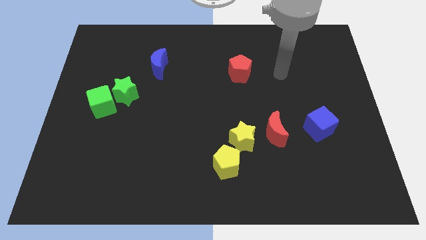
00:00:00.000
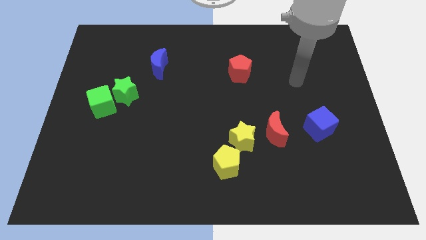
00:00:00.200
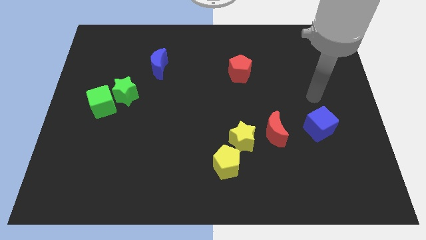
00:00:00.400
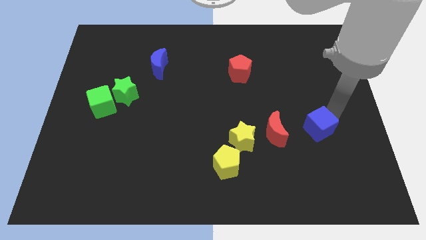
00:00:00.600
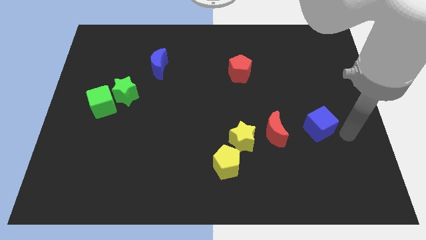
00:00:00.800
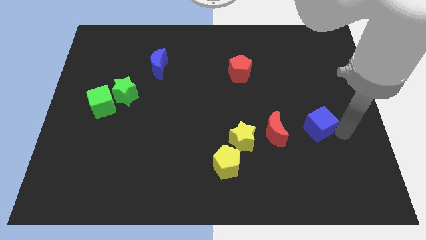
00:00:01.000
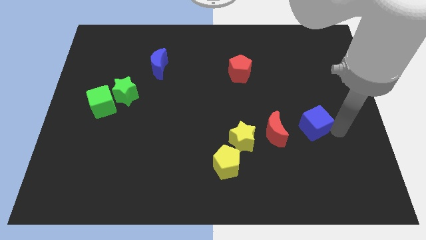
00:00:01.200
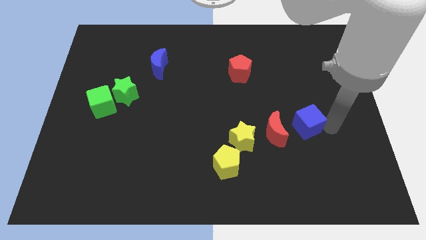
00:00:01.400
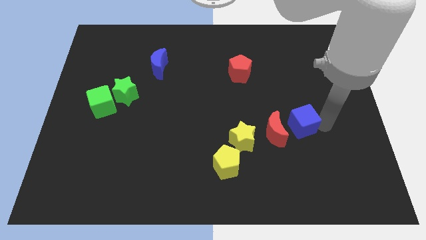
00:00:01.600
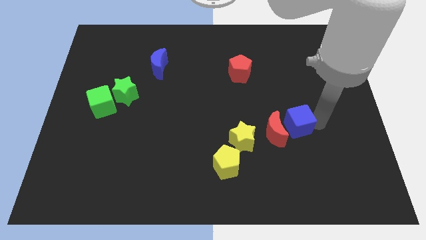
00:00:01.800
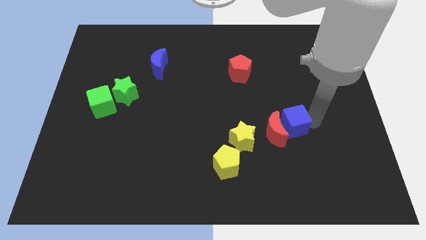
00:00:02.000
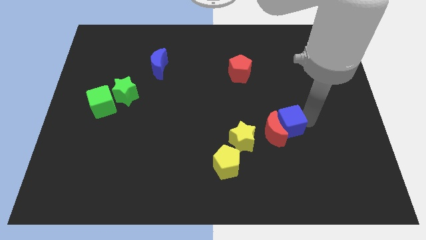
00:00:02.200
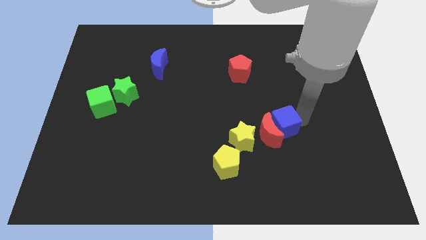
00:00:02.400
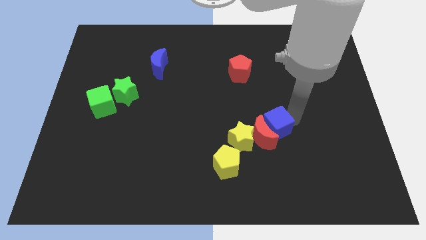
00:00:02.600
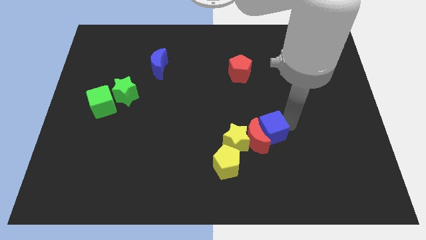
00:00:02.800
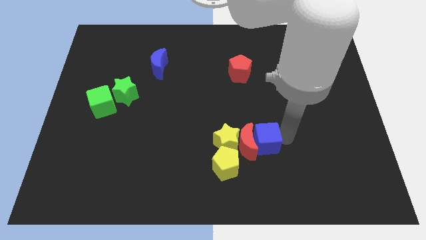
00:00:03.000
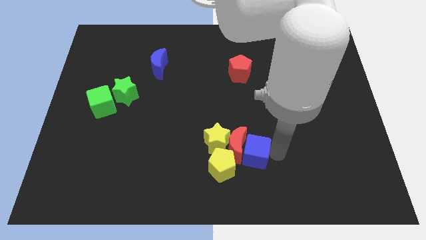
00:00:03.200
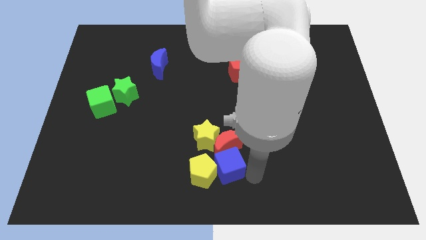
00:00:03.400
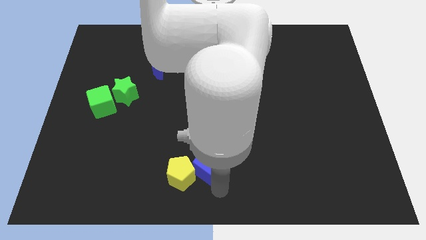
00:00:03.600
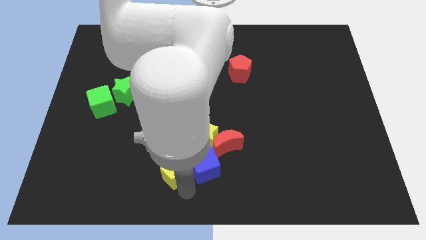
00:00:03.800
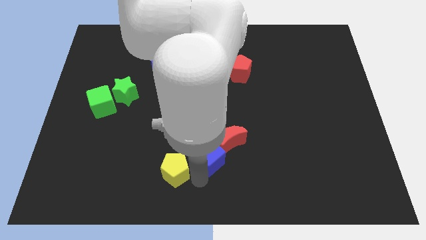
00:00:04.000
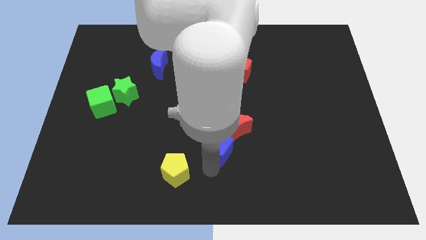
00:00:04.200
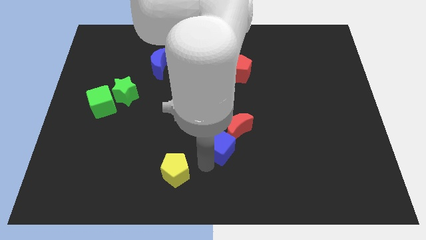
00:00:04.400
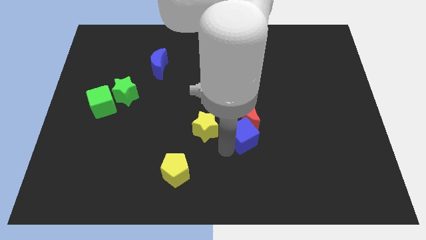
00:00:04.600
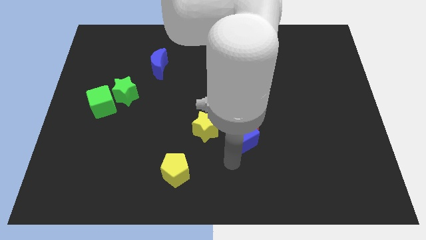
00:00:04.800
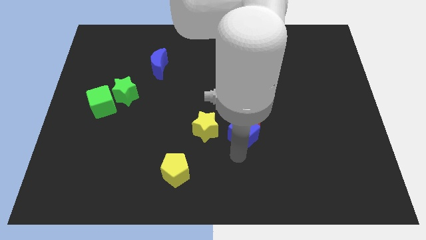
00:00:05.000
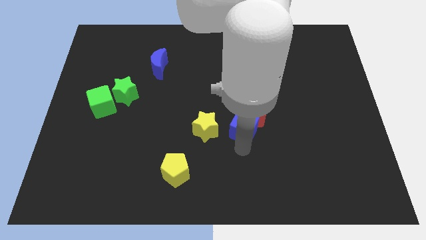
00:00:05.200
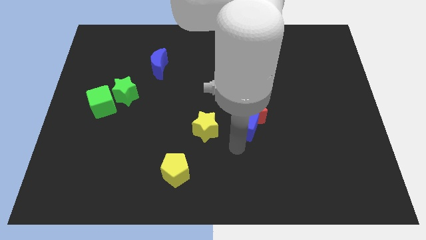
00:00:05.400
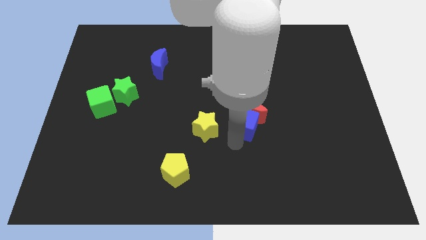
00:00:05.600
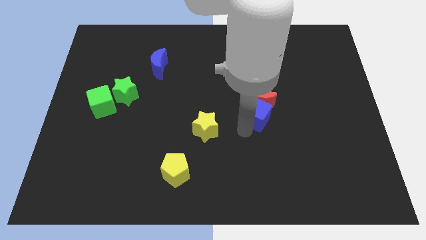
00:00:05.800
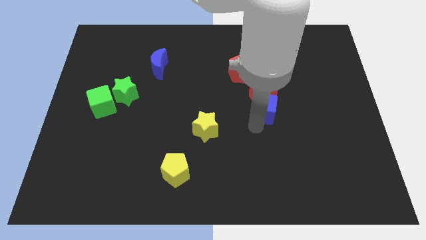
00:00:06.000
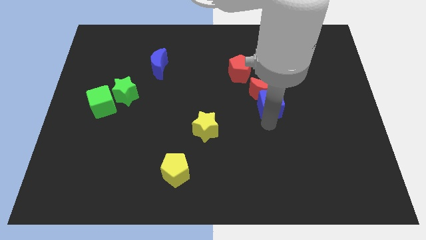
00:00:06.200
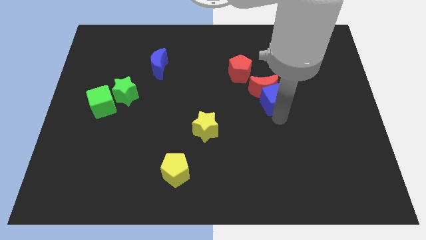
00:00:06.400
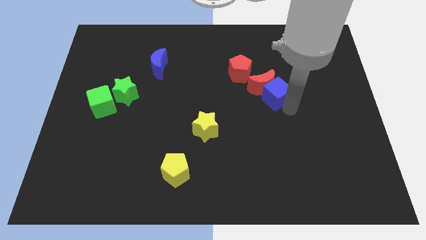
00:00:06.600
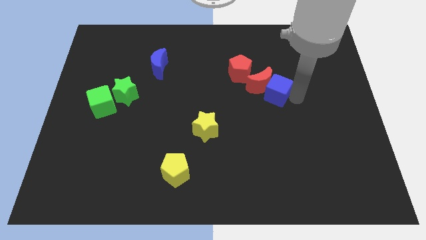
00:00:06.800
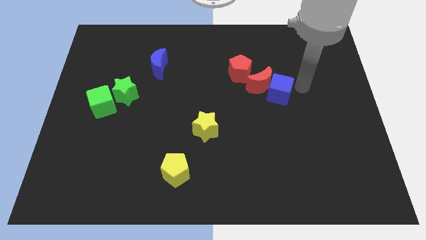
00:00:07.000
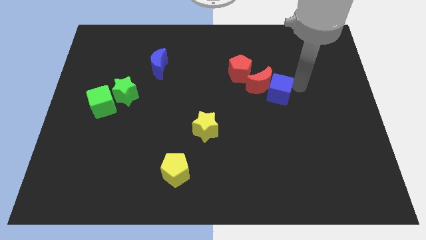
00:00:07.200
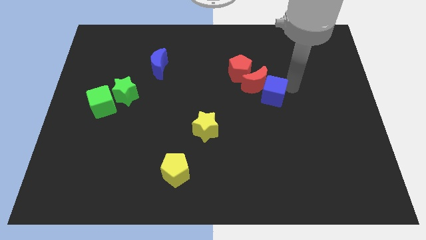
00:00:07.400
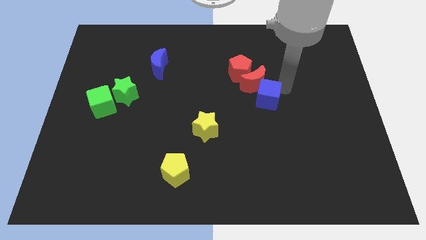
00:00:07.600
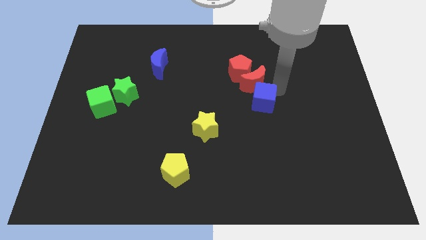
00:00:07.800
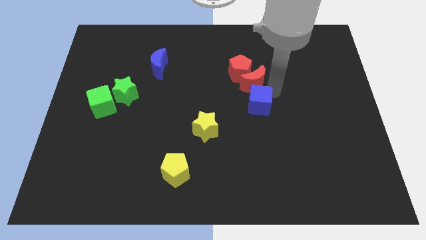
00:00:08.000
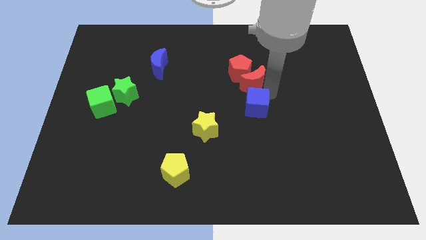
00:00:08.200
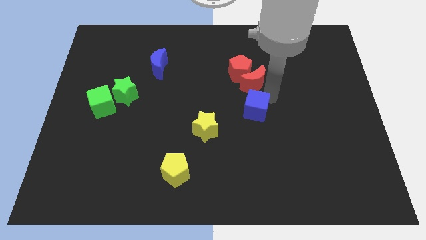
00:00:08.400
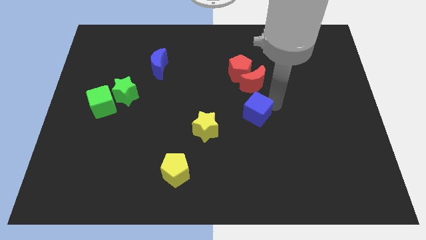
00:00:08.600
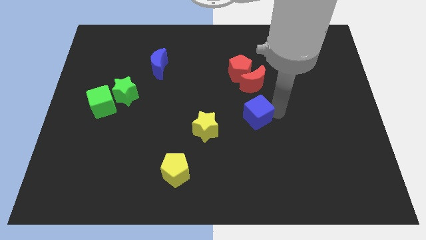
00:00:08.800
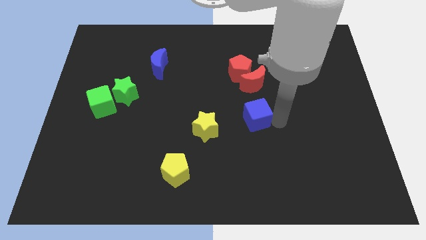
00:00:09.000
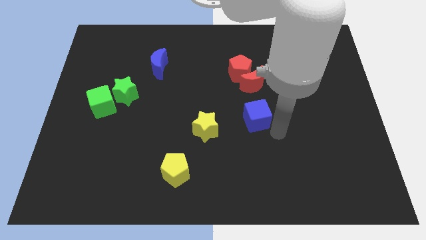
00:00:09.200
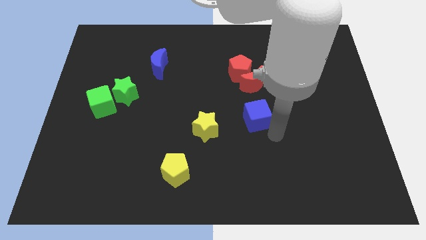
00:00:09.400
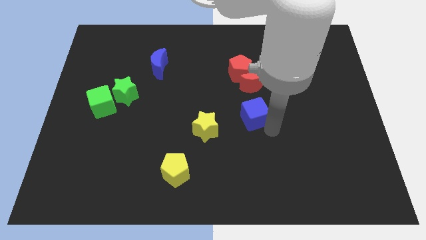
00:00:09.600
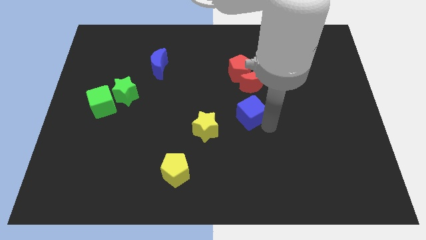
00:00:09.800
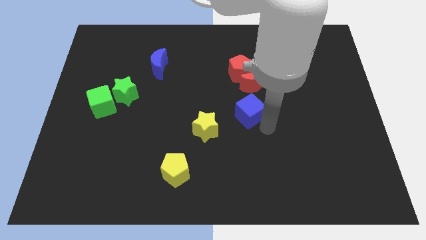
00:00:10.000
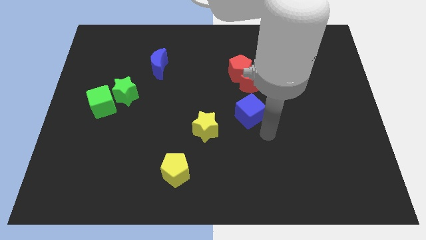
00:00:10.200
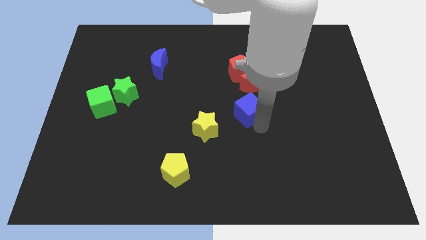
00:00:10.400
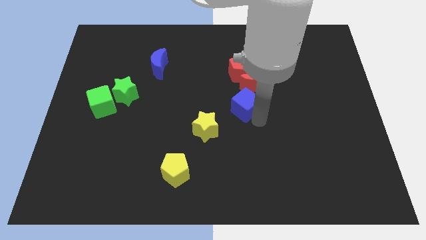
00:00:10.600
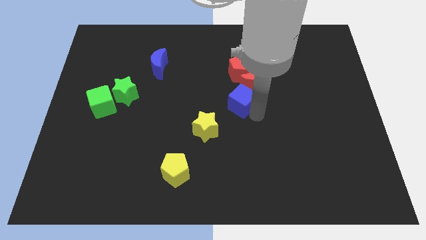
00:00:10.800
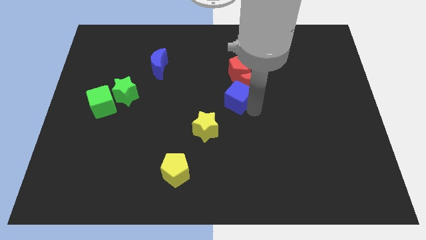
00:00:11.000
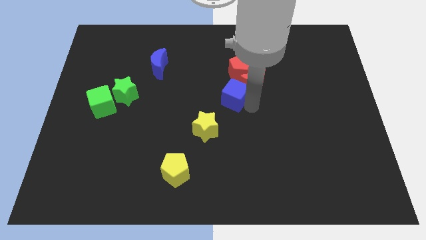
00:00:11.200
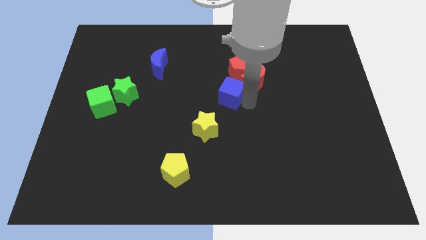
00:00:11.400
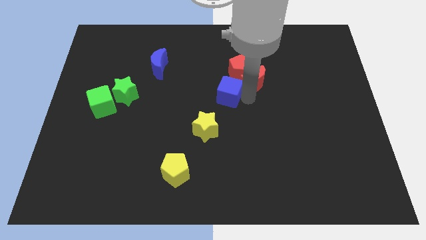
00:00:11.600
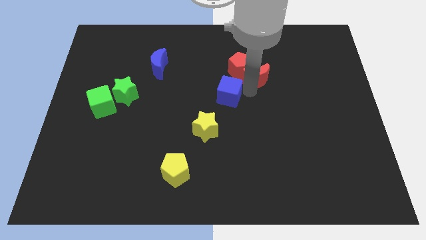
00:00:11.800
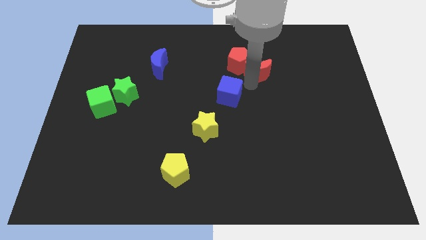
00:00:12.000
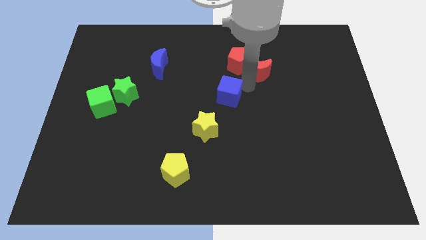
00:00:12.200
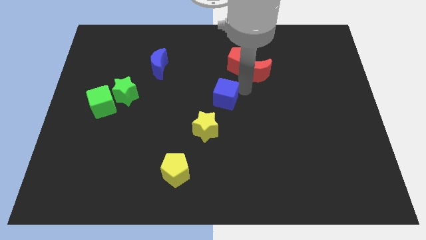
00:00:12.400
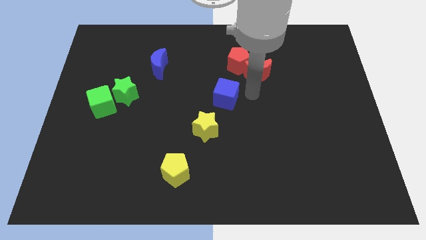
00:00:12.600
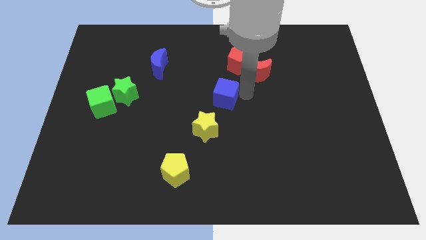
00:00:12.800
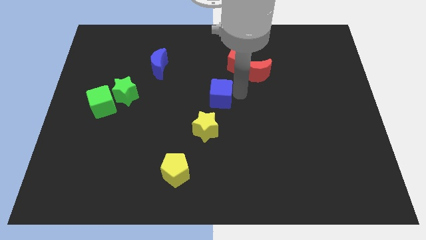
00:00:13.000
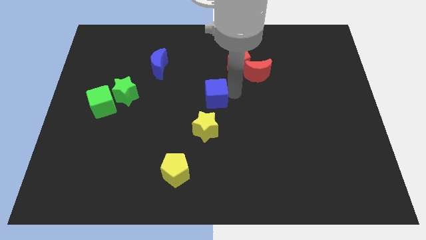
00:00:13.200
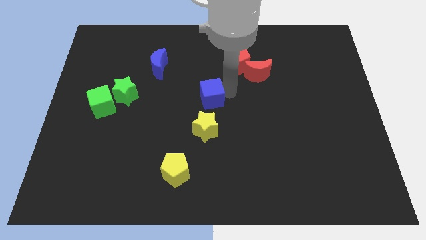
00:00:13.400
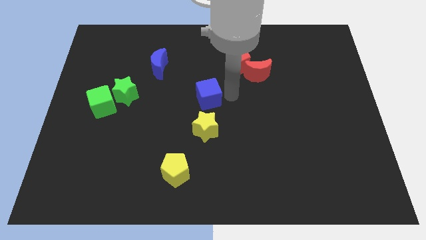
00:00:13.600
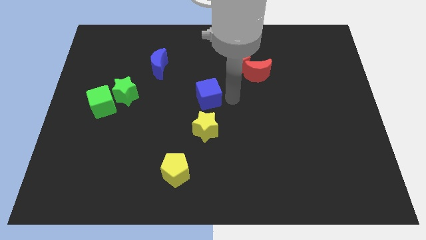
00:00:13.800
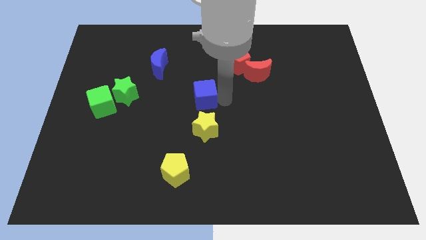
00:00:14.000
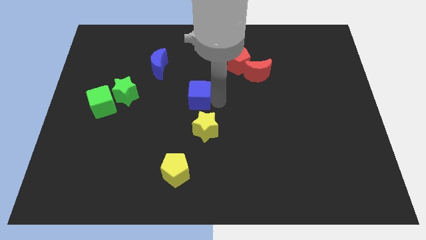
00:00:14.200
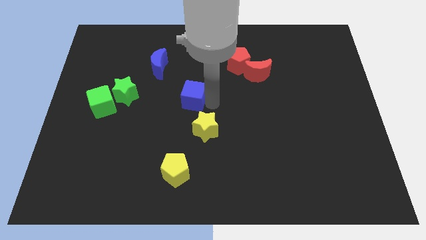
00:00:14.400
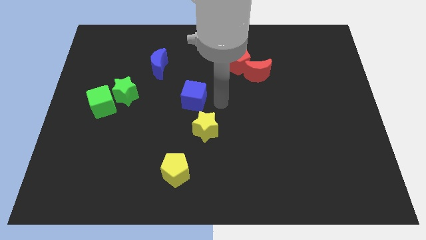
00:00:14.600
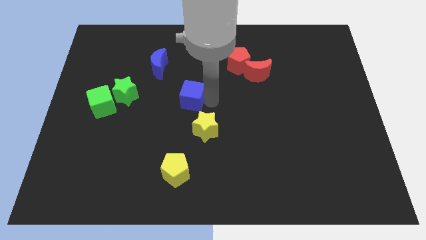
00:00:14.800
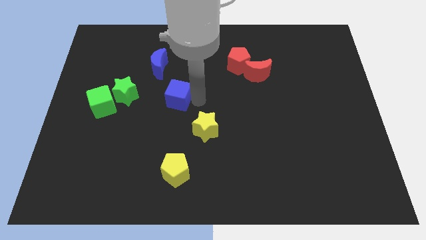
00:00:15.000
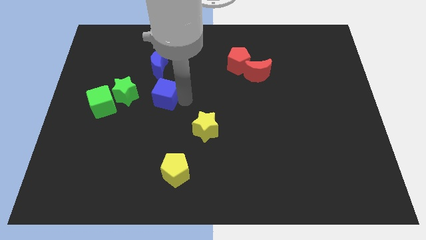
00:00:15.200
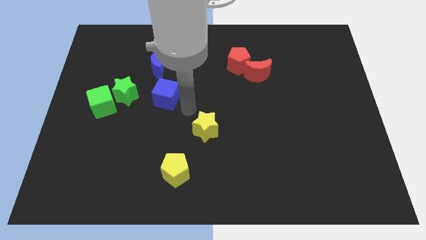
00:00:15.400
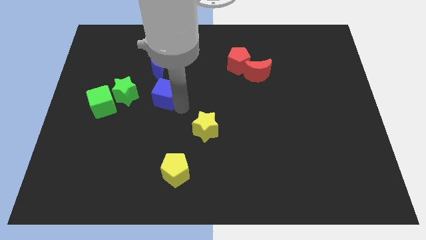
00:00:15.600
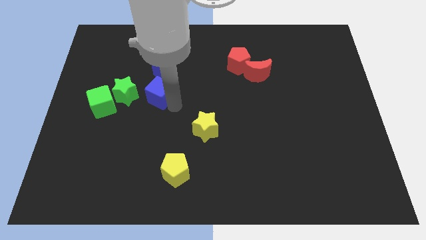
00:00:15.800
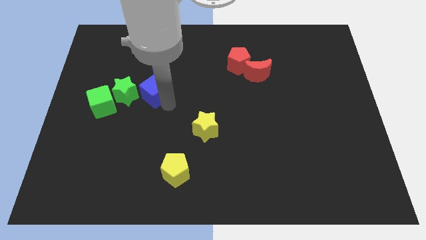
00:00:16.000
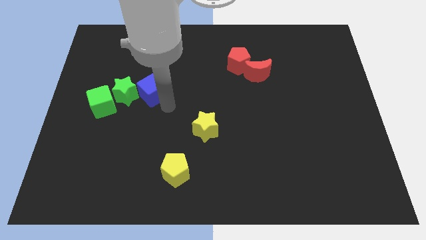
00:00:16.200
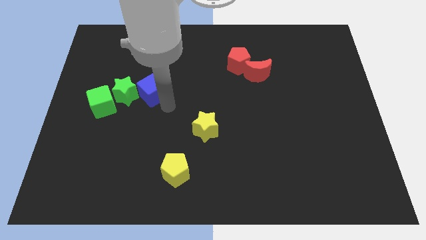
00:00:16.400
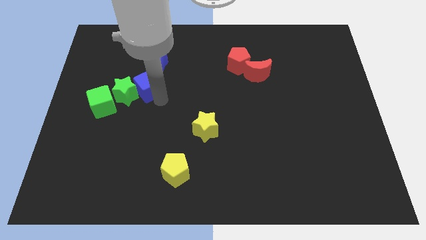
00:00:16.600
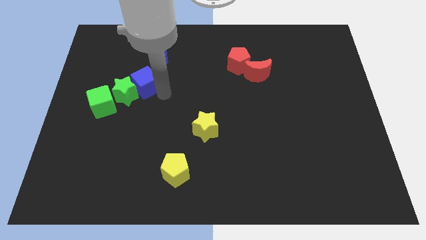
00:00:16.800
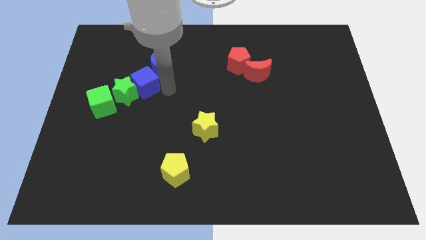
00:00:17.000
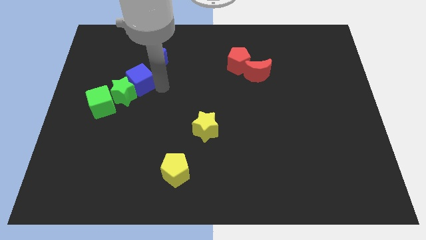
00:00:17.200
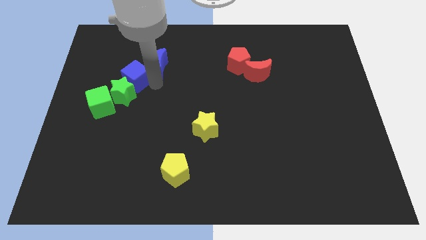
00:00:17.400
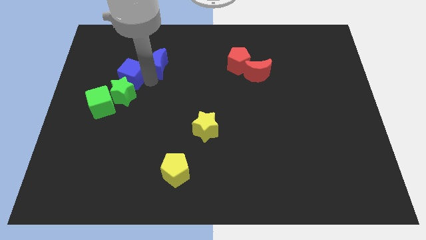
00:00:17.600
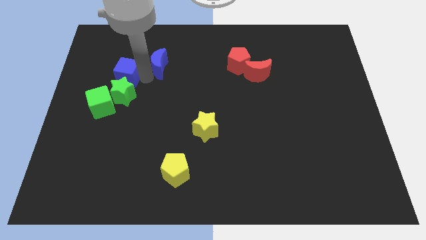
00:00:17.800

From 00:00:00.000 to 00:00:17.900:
put the blue cube diagonally up and to the left of the green star
